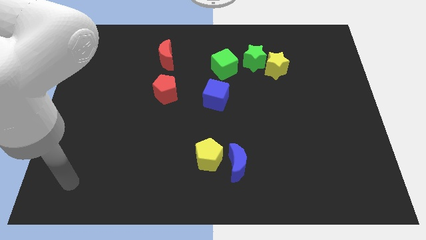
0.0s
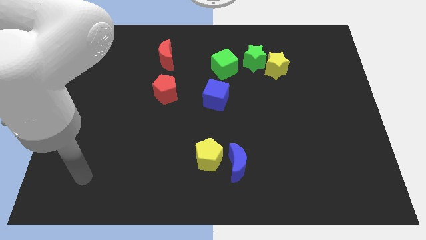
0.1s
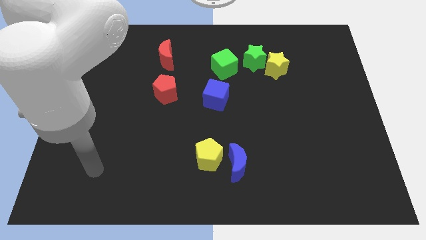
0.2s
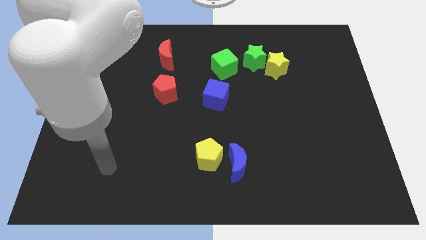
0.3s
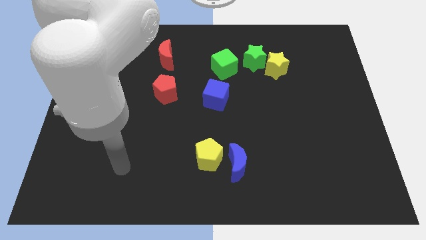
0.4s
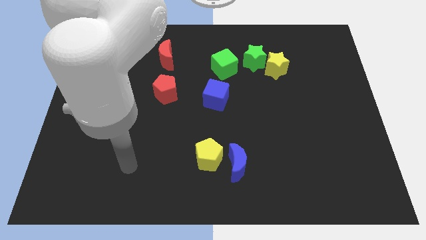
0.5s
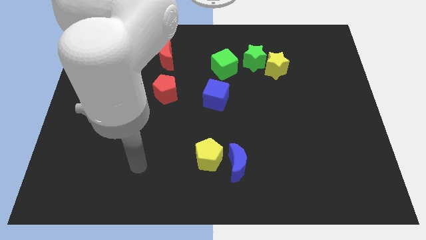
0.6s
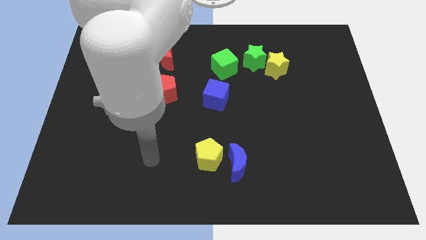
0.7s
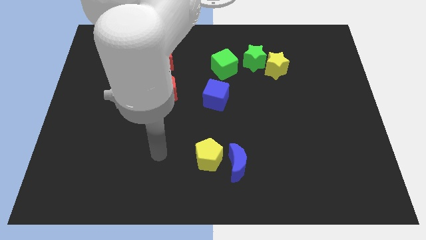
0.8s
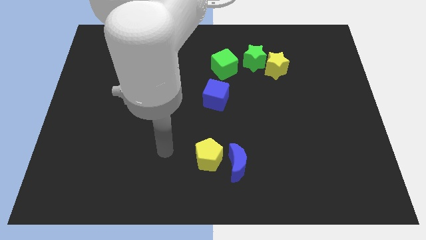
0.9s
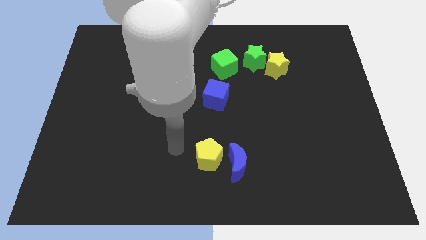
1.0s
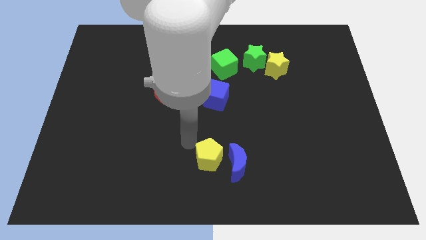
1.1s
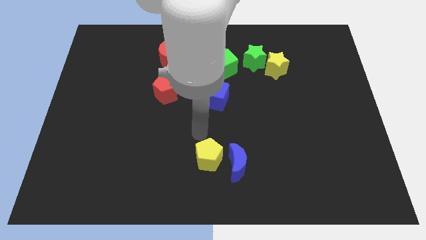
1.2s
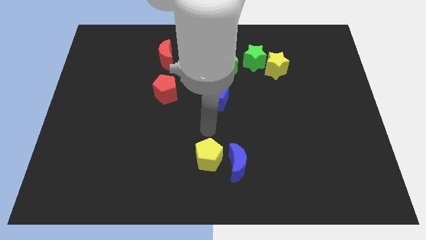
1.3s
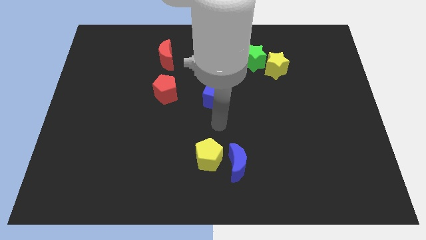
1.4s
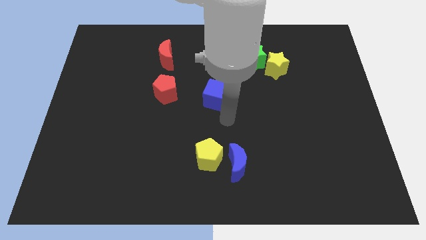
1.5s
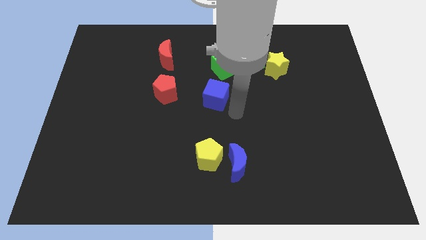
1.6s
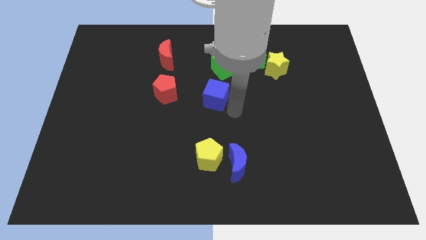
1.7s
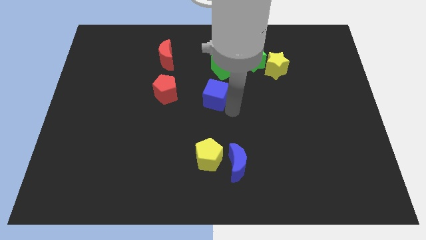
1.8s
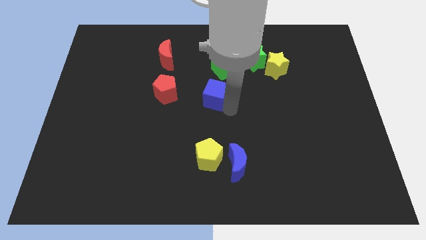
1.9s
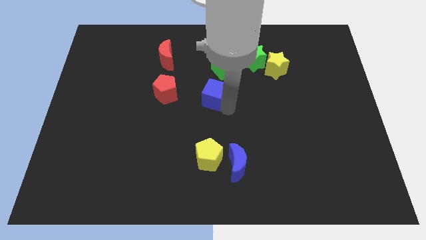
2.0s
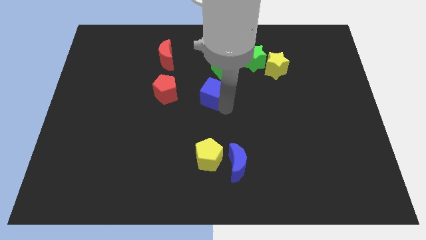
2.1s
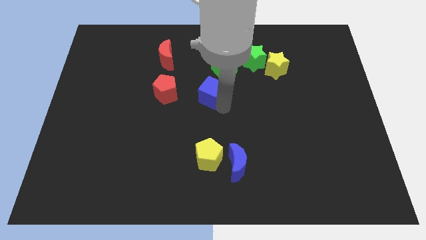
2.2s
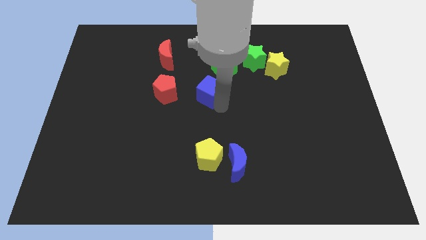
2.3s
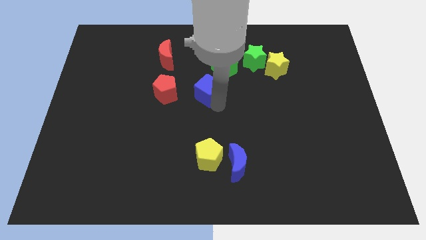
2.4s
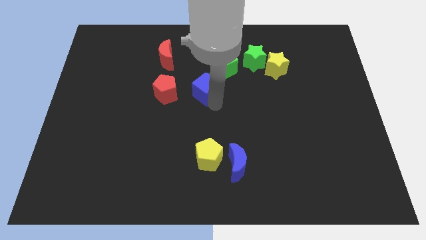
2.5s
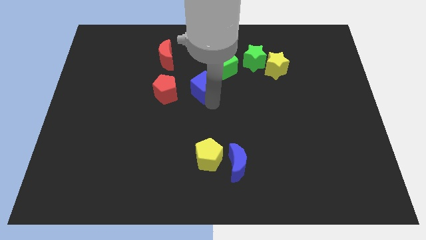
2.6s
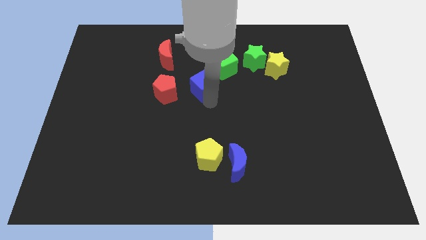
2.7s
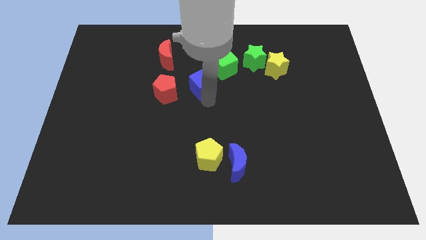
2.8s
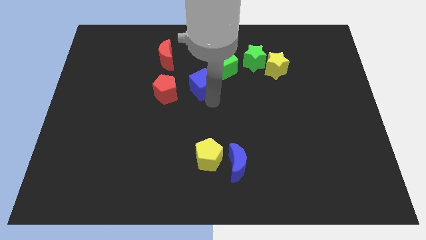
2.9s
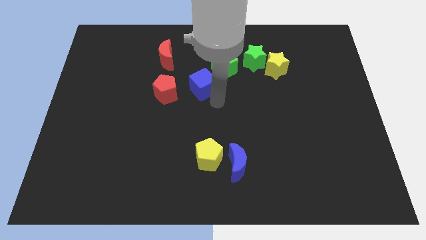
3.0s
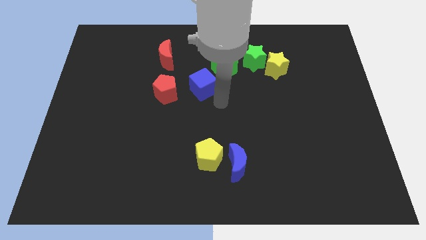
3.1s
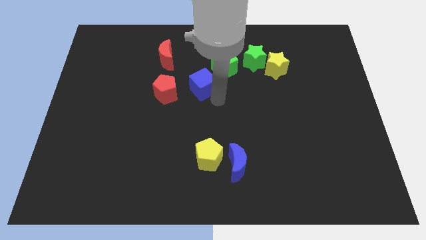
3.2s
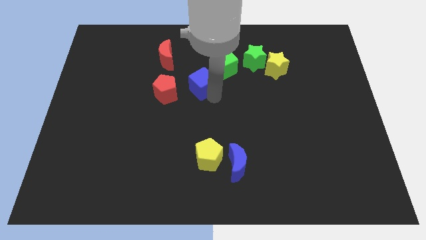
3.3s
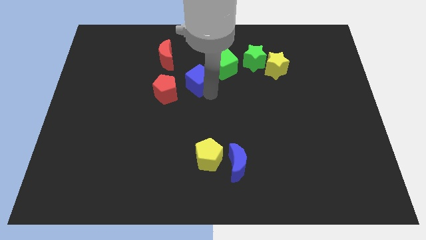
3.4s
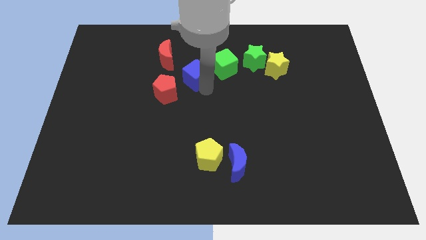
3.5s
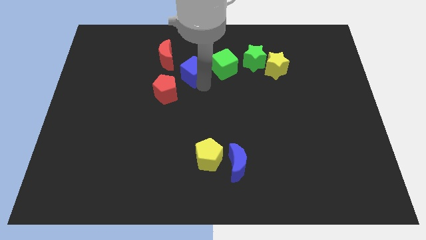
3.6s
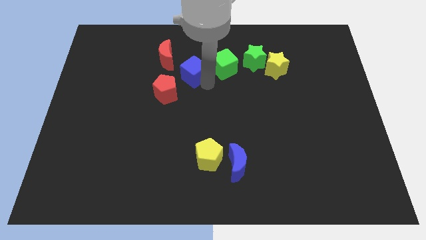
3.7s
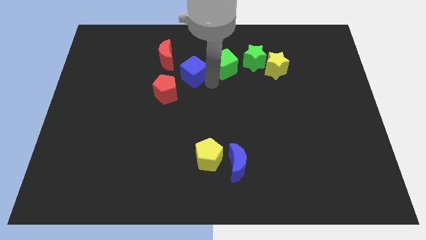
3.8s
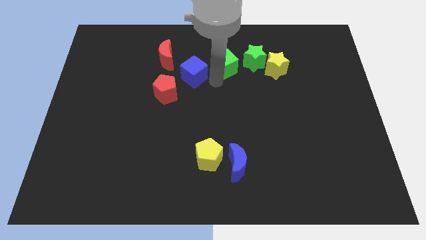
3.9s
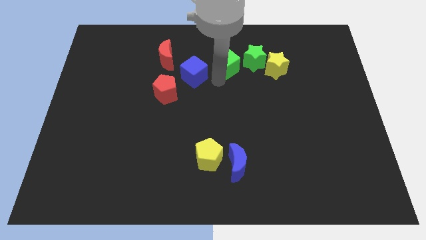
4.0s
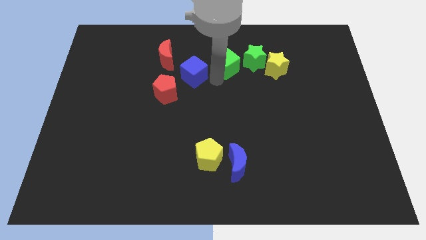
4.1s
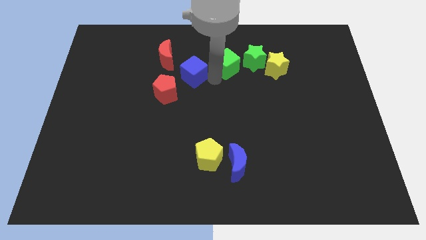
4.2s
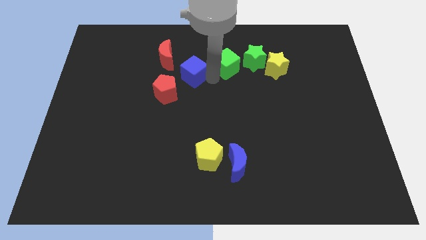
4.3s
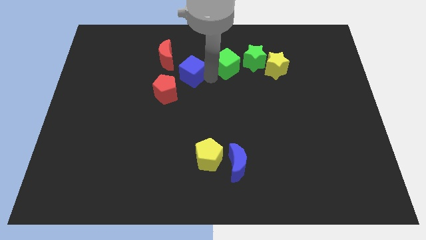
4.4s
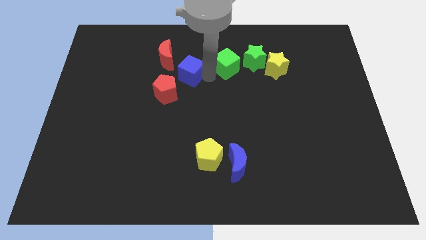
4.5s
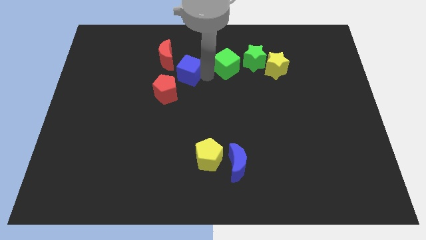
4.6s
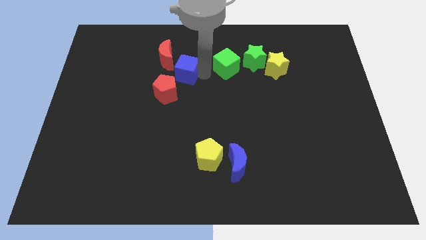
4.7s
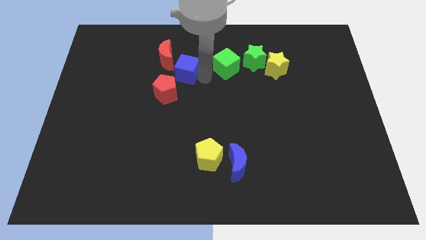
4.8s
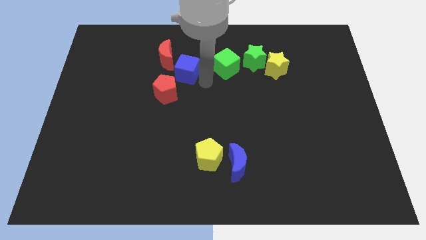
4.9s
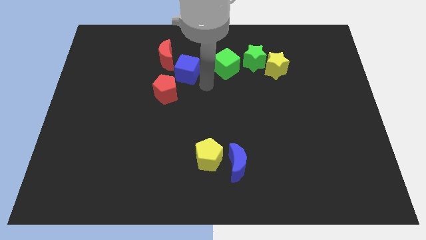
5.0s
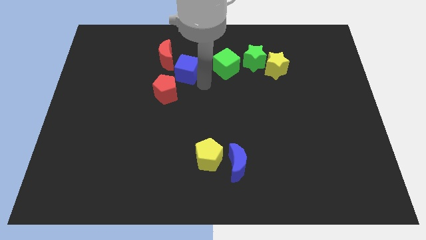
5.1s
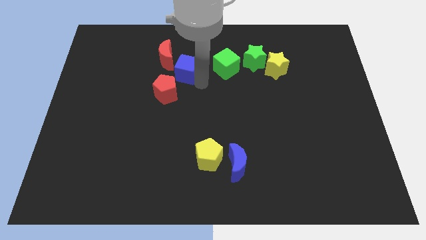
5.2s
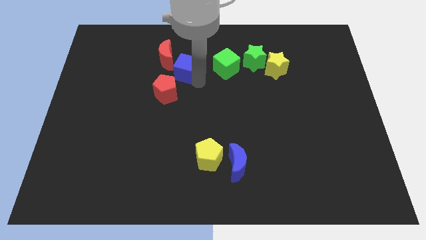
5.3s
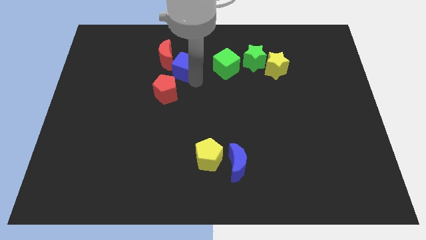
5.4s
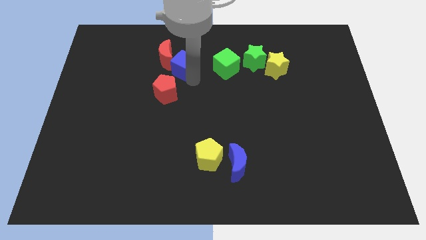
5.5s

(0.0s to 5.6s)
push the blue cube towards the red moon

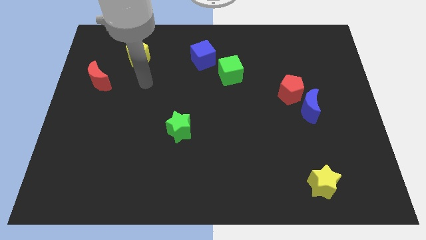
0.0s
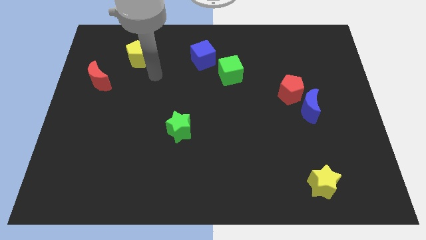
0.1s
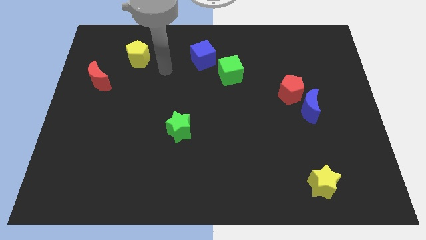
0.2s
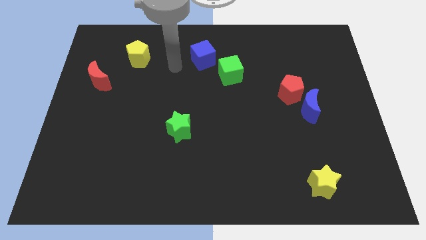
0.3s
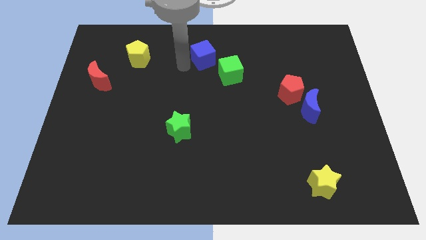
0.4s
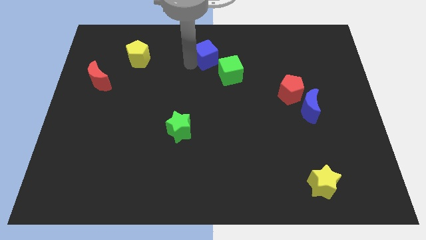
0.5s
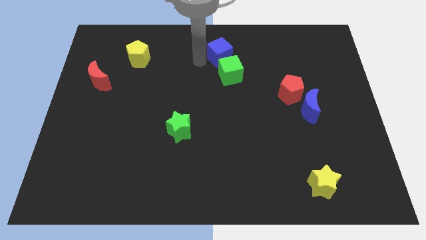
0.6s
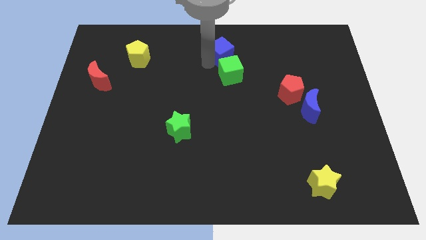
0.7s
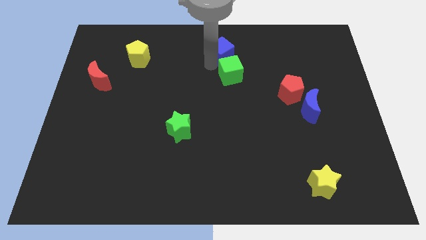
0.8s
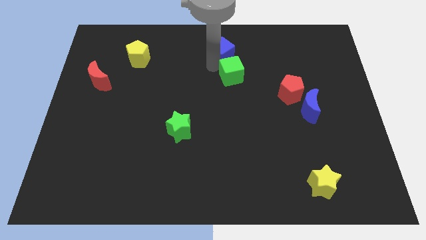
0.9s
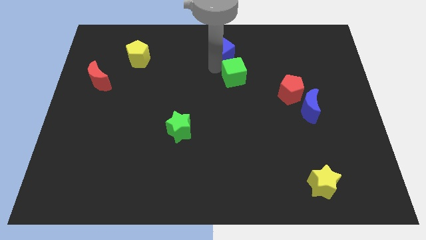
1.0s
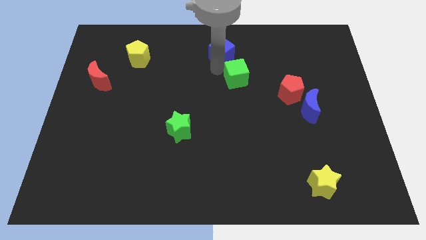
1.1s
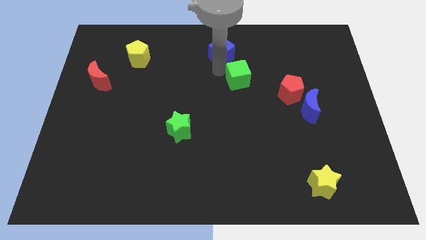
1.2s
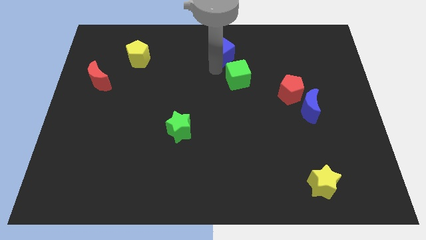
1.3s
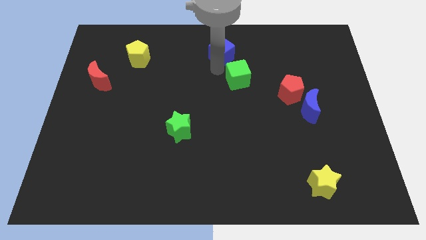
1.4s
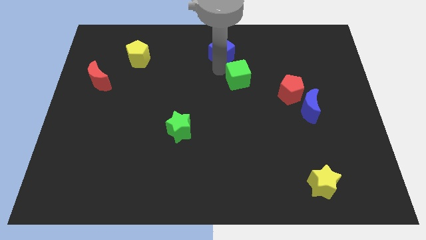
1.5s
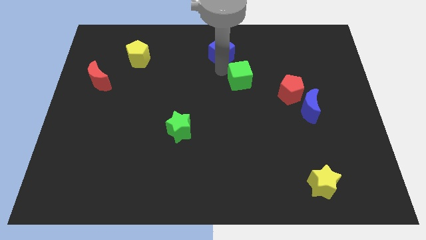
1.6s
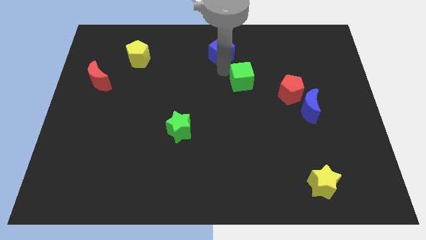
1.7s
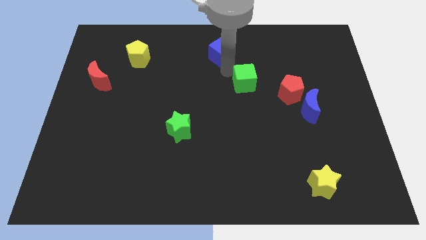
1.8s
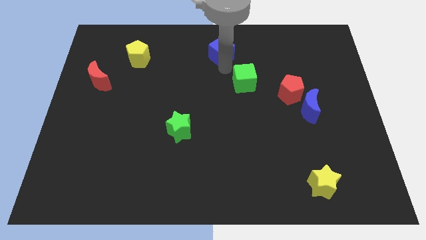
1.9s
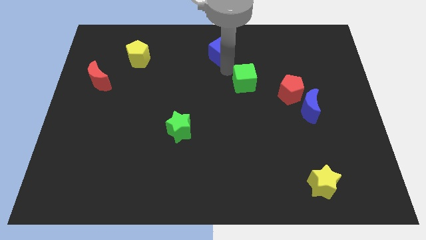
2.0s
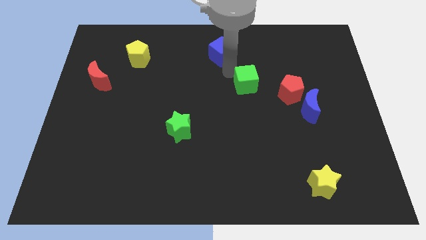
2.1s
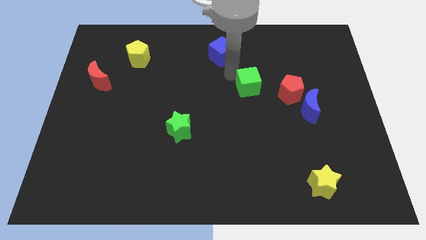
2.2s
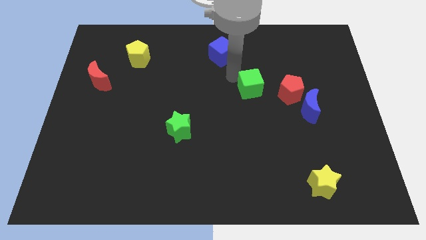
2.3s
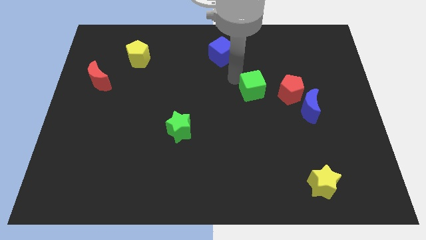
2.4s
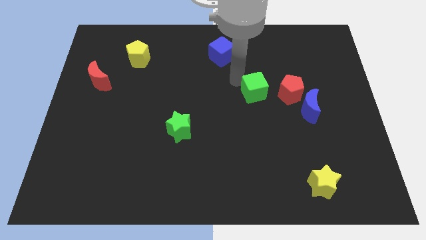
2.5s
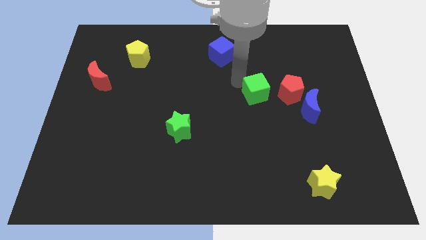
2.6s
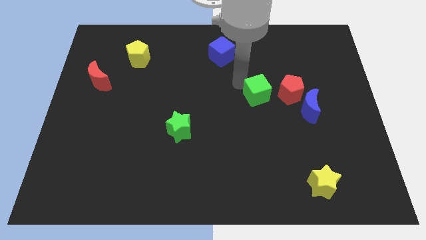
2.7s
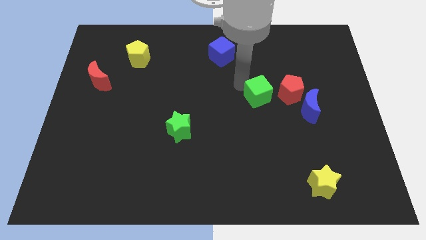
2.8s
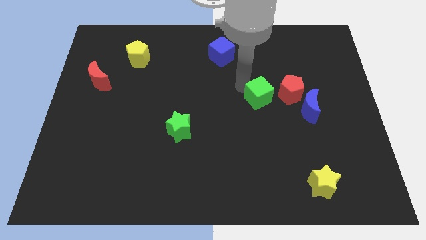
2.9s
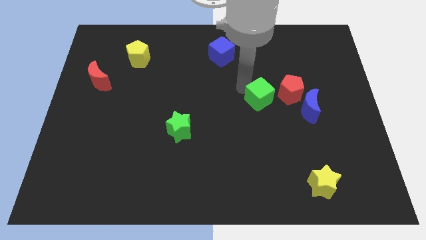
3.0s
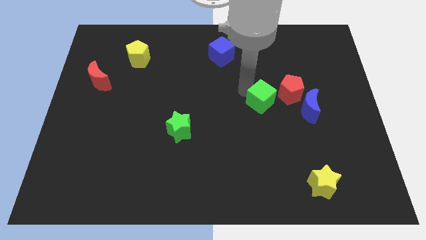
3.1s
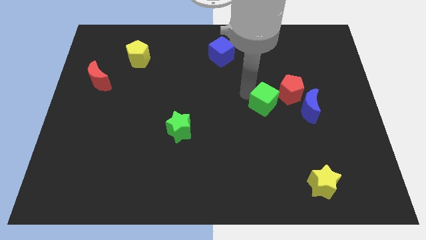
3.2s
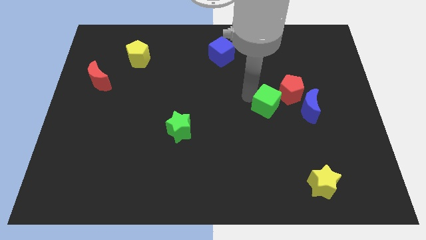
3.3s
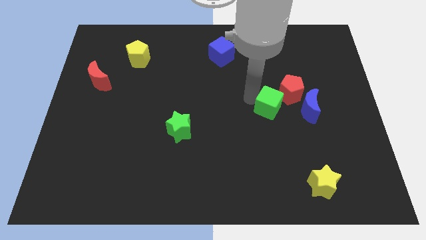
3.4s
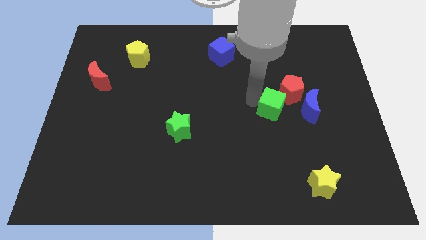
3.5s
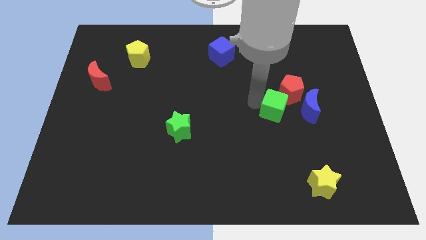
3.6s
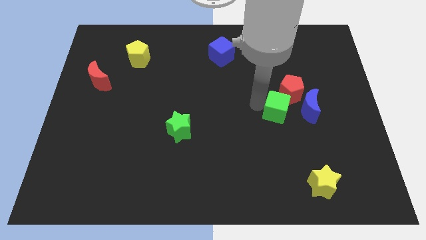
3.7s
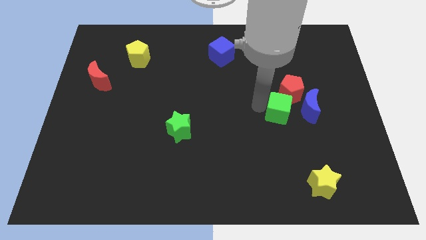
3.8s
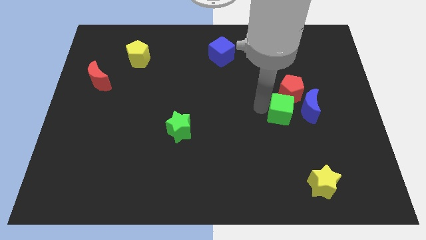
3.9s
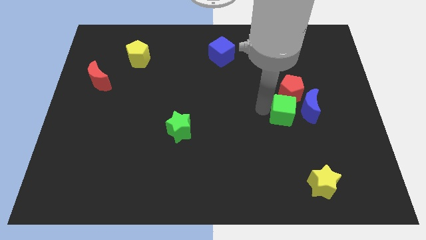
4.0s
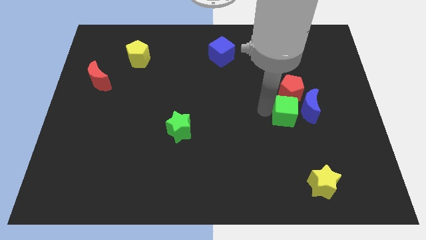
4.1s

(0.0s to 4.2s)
slide the green cube to the blue moon
